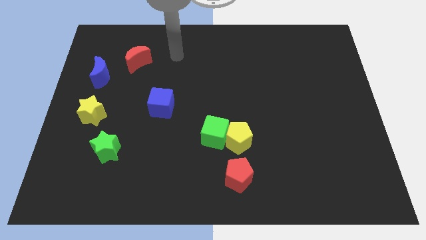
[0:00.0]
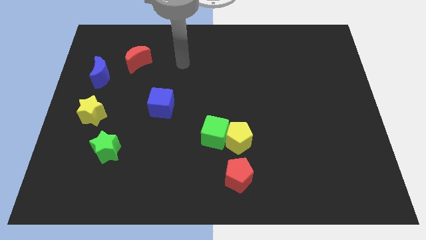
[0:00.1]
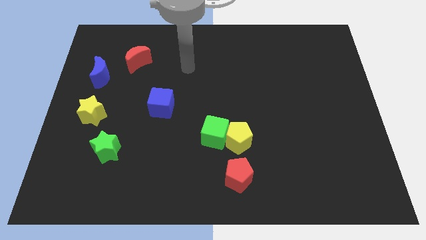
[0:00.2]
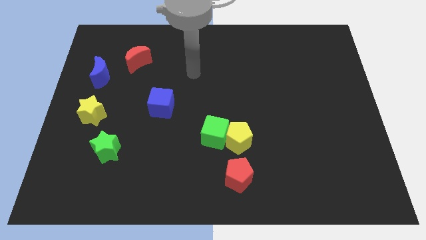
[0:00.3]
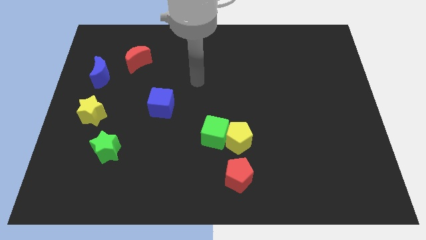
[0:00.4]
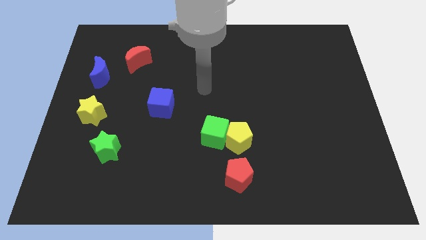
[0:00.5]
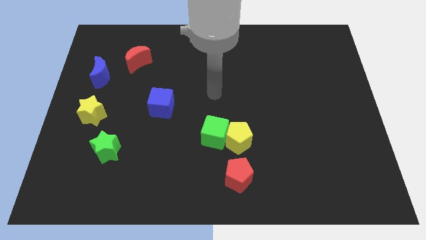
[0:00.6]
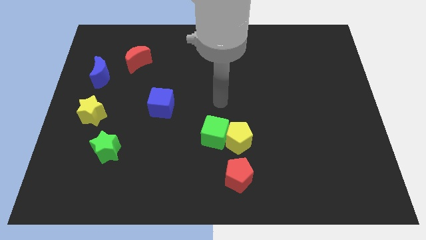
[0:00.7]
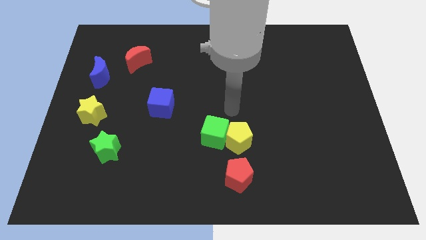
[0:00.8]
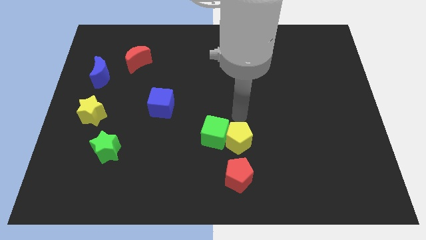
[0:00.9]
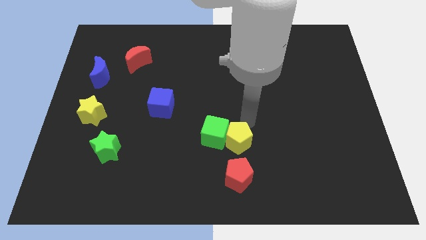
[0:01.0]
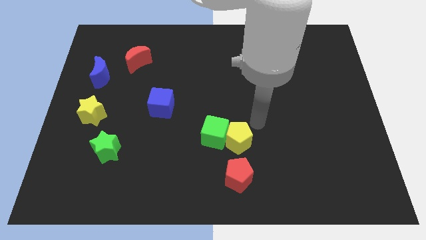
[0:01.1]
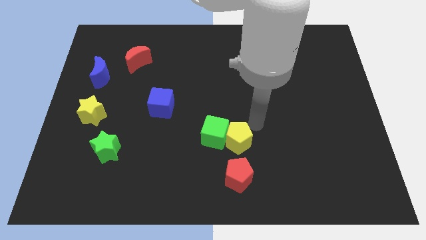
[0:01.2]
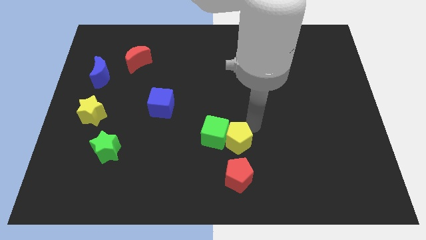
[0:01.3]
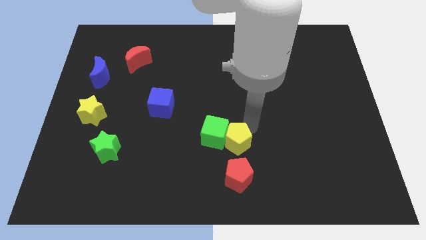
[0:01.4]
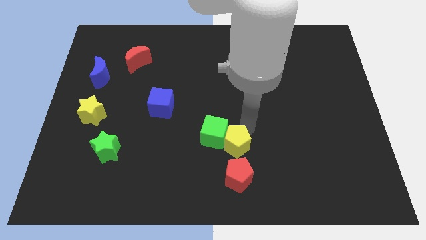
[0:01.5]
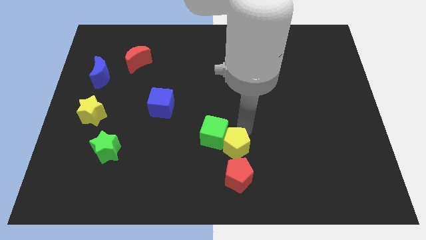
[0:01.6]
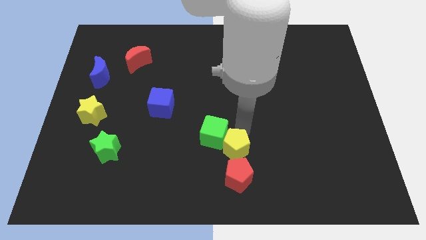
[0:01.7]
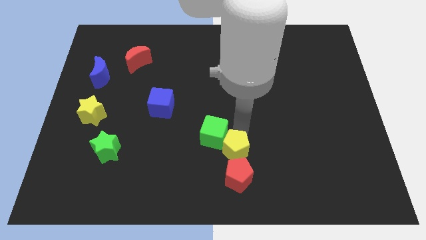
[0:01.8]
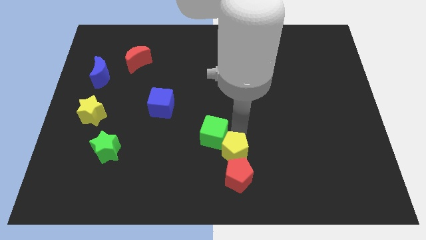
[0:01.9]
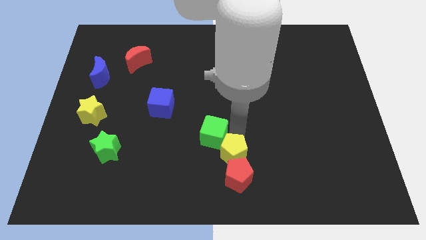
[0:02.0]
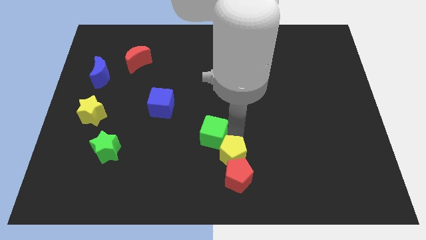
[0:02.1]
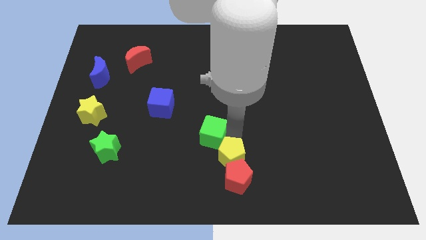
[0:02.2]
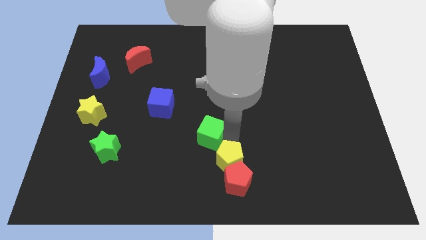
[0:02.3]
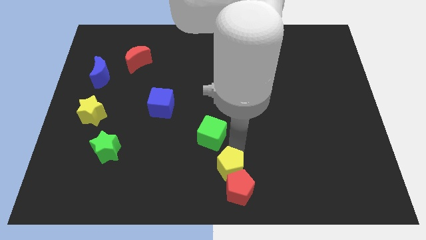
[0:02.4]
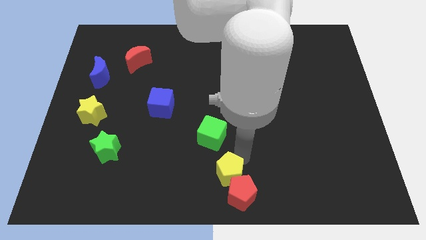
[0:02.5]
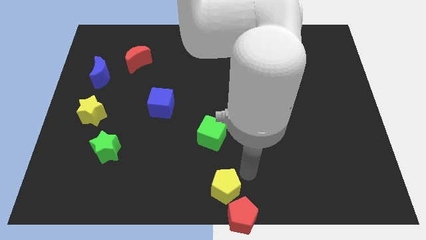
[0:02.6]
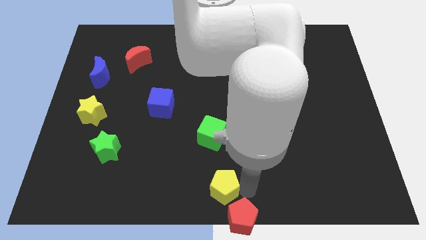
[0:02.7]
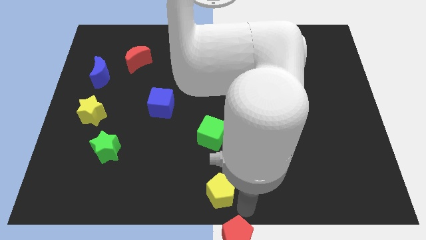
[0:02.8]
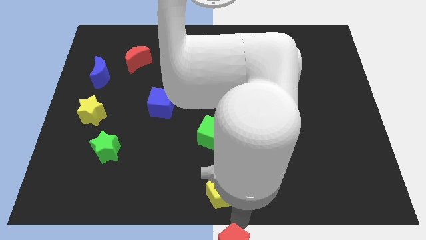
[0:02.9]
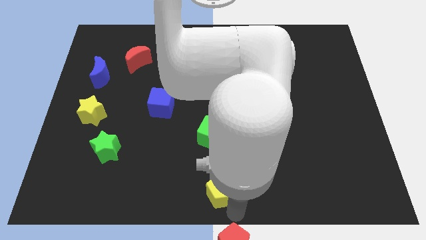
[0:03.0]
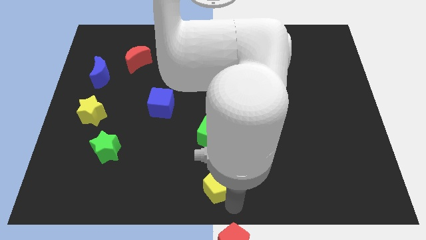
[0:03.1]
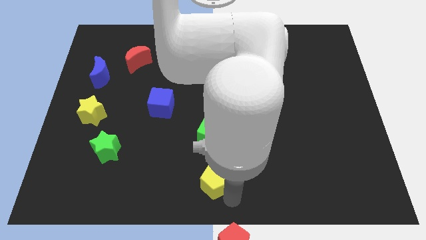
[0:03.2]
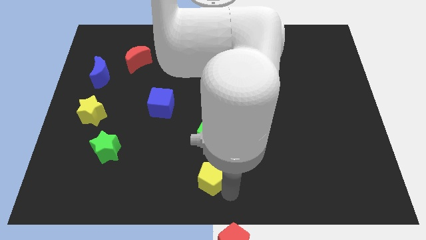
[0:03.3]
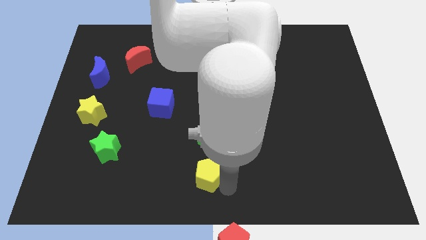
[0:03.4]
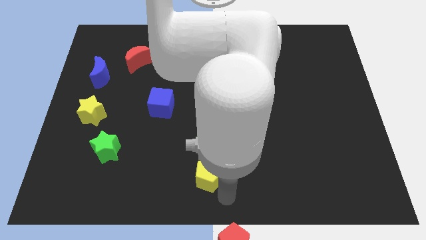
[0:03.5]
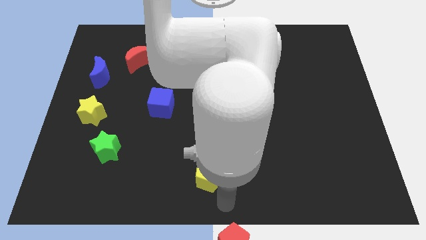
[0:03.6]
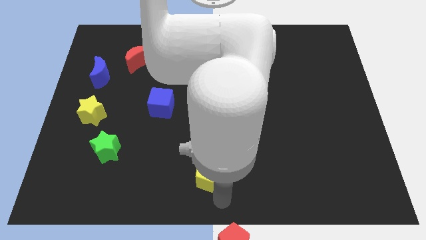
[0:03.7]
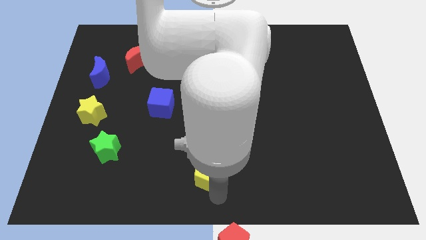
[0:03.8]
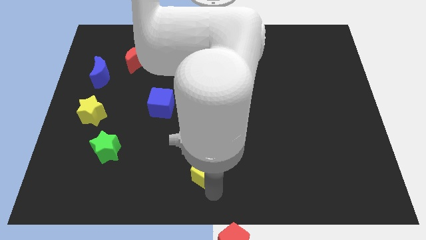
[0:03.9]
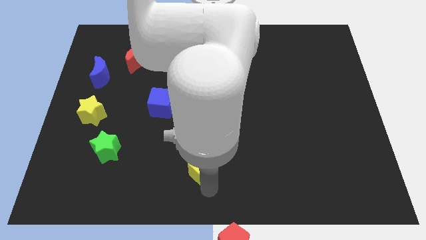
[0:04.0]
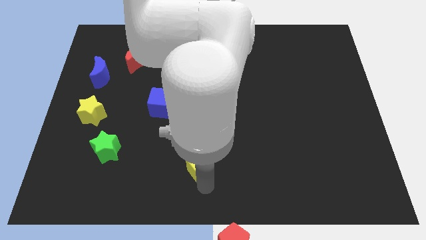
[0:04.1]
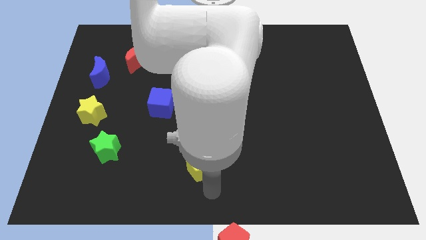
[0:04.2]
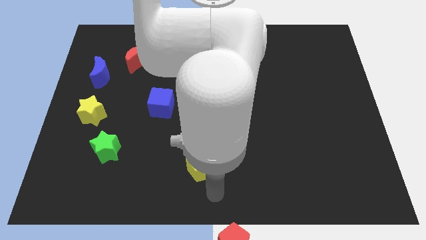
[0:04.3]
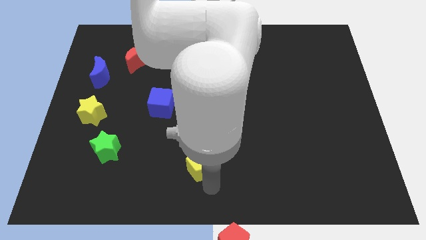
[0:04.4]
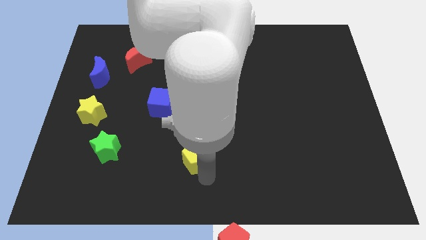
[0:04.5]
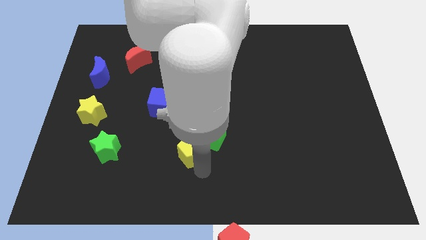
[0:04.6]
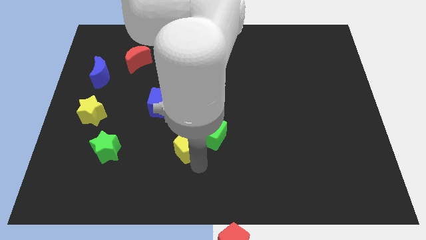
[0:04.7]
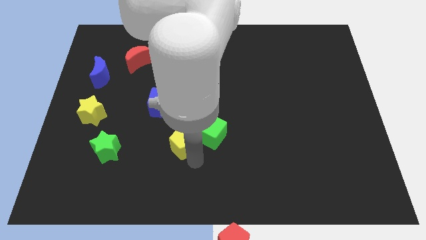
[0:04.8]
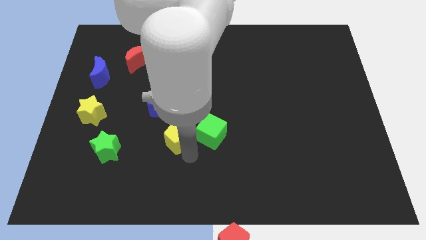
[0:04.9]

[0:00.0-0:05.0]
slide the yellow pentagon diagonally down and to the right of the blue cube

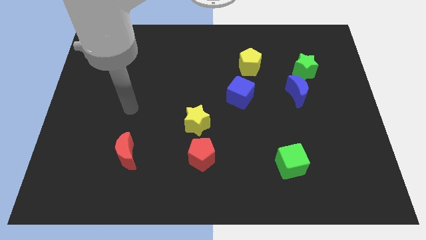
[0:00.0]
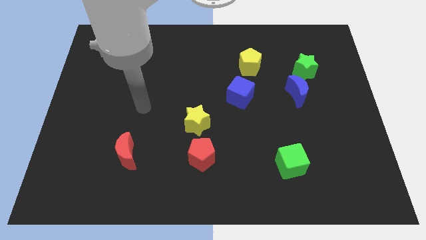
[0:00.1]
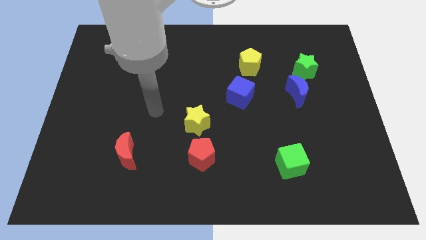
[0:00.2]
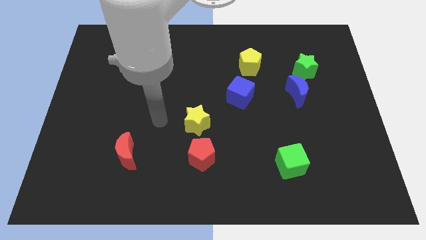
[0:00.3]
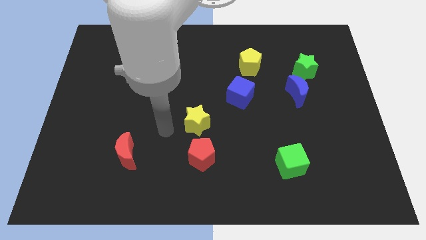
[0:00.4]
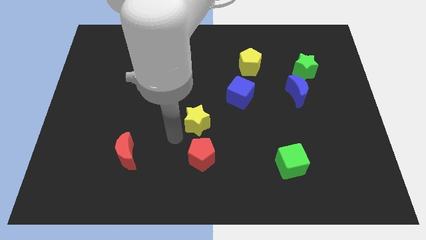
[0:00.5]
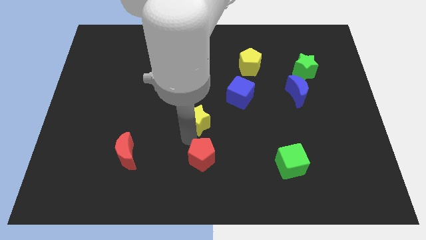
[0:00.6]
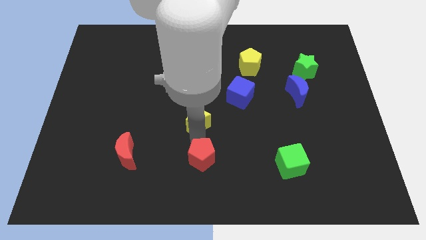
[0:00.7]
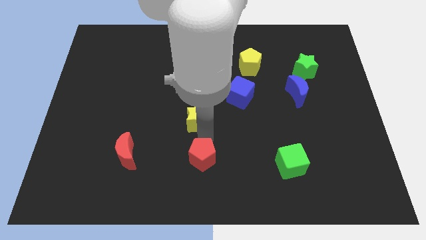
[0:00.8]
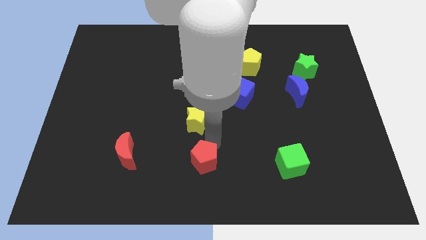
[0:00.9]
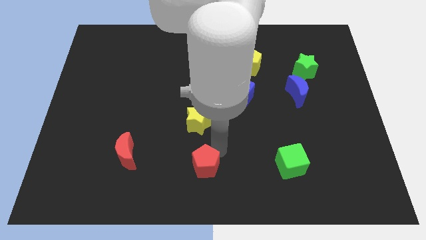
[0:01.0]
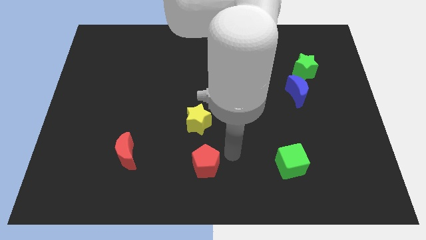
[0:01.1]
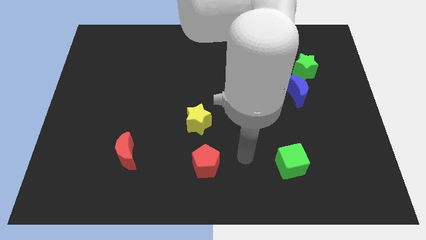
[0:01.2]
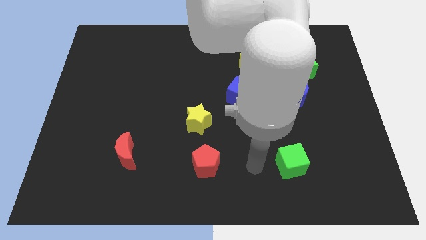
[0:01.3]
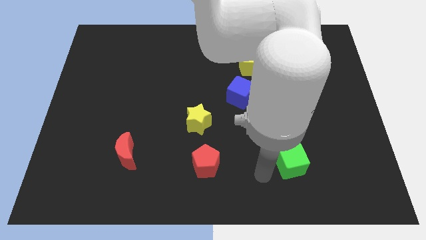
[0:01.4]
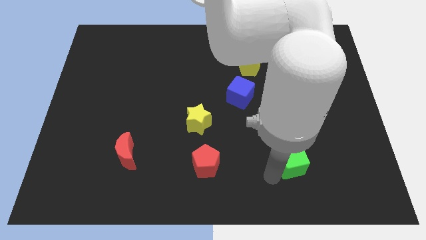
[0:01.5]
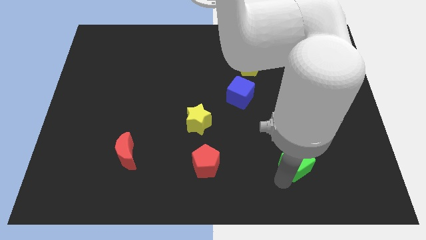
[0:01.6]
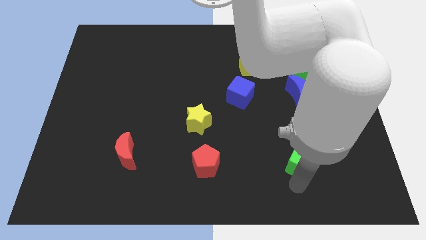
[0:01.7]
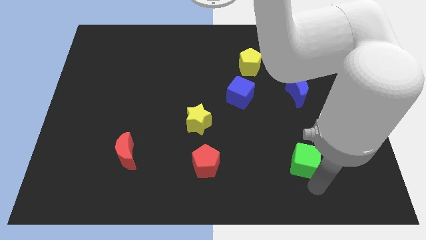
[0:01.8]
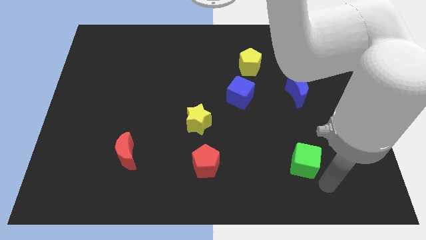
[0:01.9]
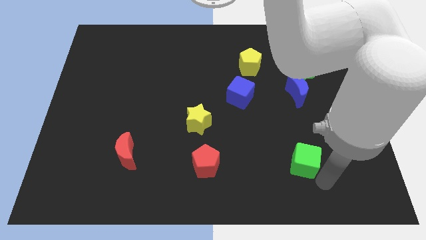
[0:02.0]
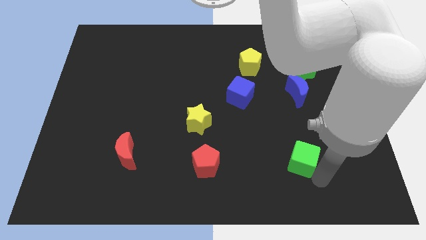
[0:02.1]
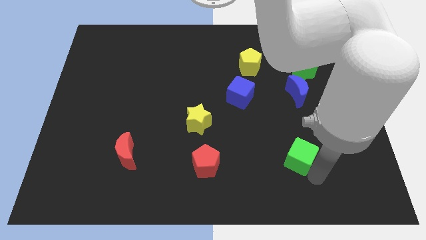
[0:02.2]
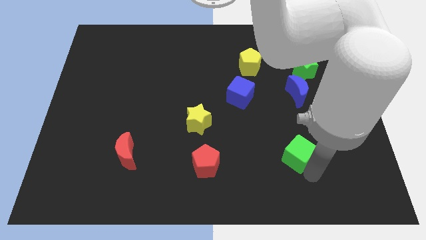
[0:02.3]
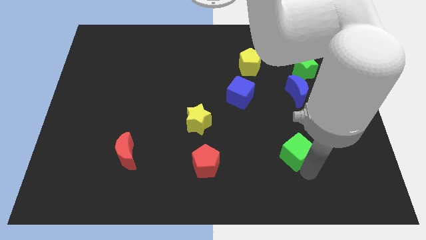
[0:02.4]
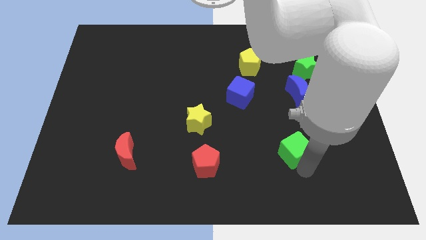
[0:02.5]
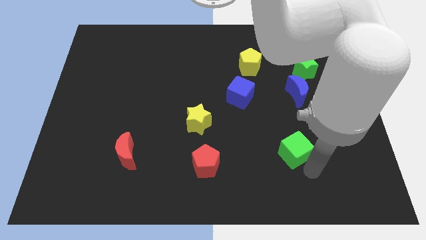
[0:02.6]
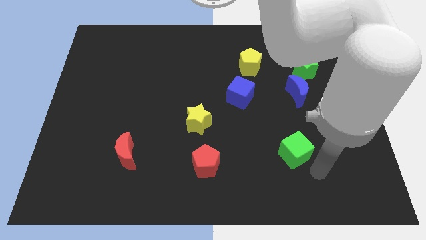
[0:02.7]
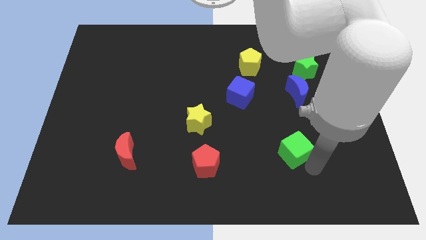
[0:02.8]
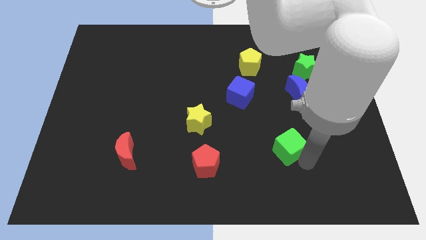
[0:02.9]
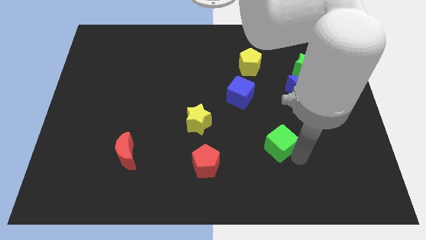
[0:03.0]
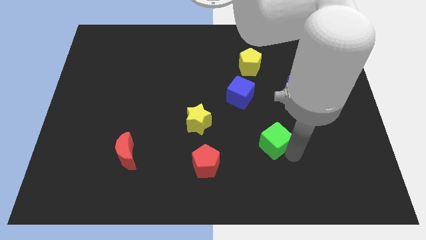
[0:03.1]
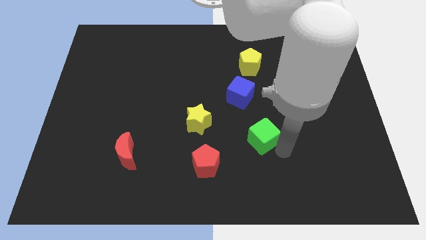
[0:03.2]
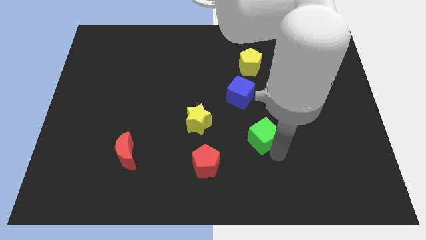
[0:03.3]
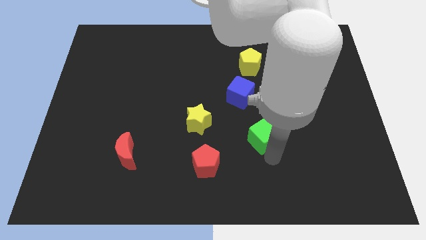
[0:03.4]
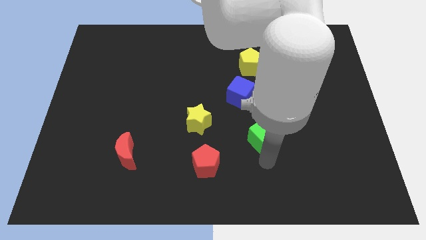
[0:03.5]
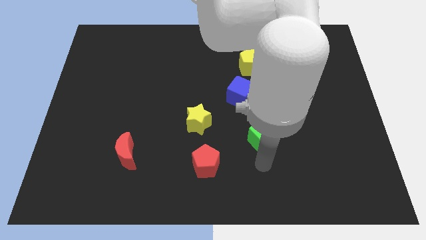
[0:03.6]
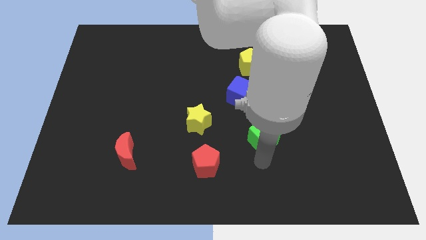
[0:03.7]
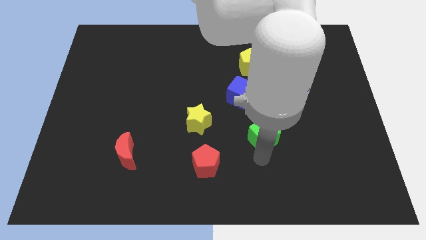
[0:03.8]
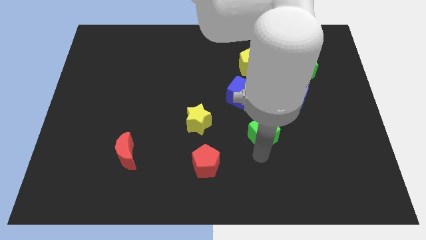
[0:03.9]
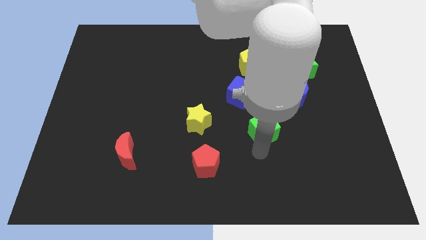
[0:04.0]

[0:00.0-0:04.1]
push the green cube to the bottom right side of the blue cube
